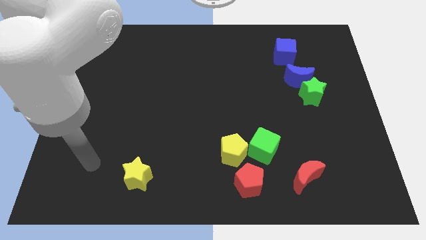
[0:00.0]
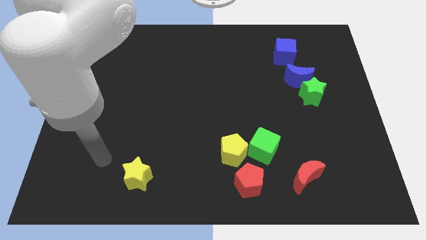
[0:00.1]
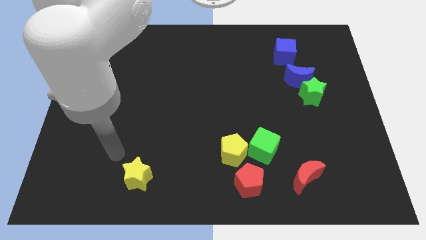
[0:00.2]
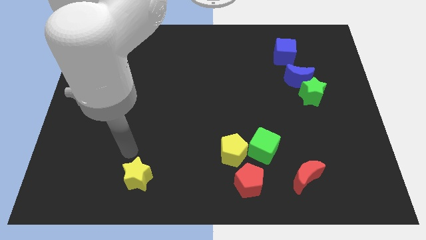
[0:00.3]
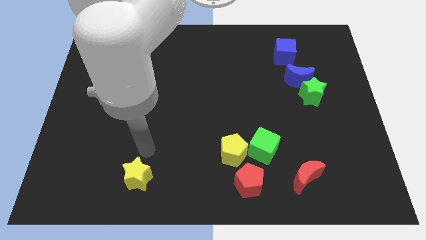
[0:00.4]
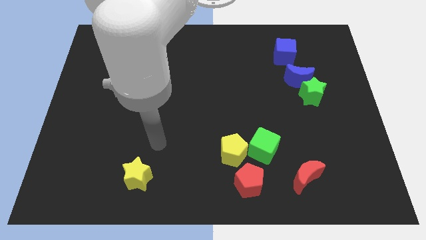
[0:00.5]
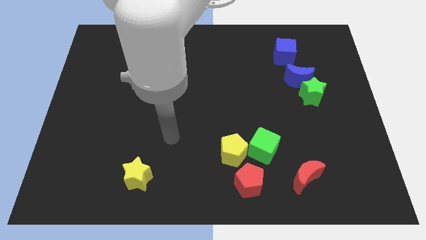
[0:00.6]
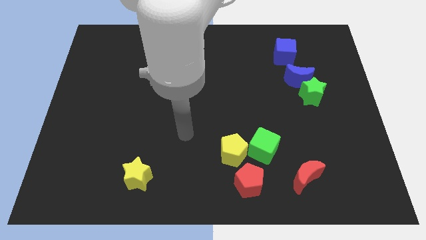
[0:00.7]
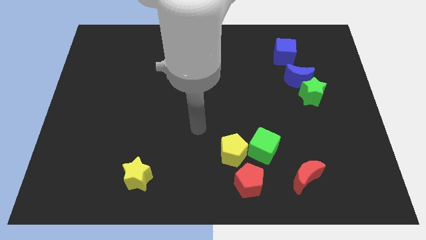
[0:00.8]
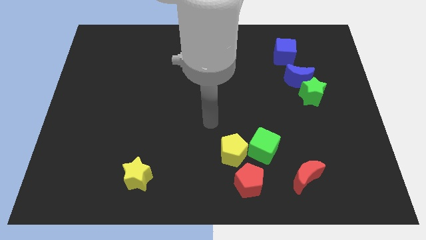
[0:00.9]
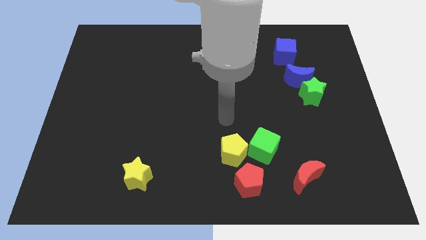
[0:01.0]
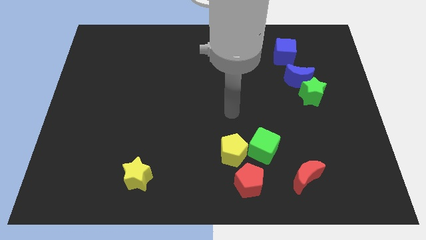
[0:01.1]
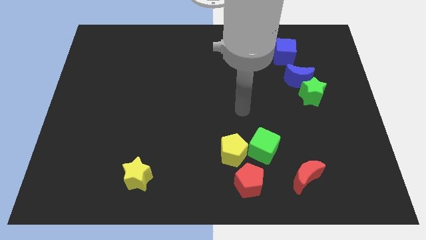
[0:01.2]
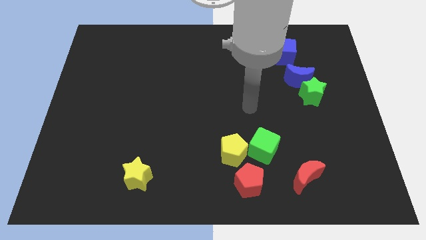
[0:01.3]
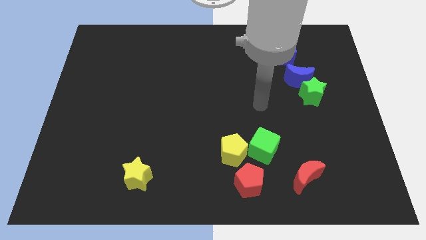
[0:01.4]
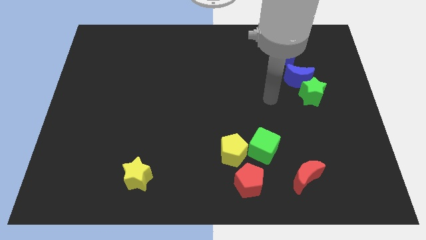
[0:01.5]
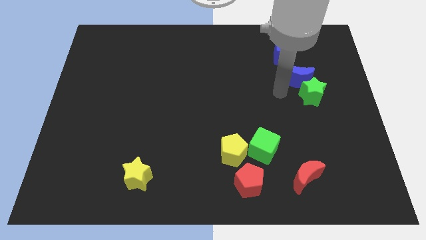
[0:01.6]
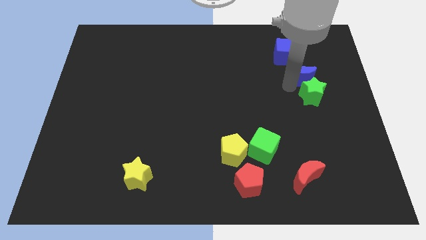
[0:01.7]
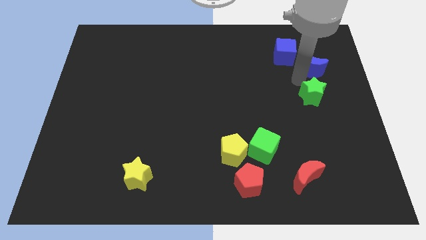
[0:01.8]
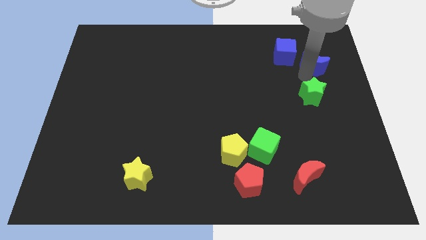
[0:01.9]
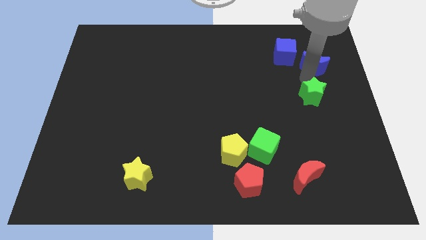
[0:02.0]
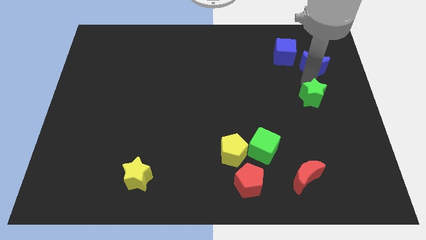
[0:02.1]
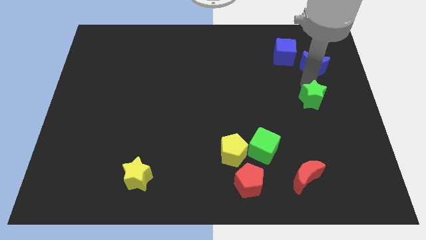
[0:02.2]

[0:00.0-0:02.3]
separate the green star from the blue moon

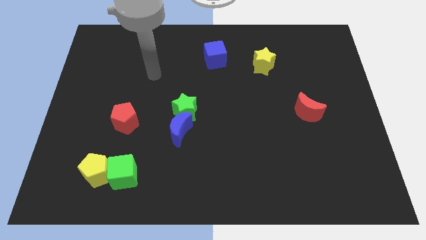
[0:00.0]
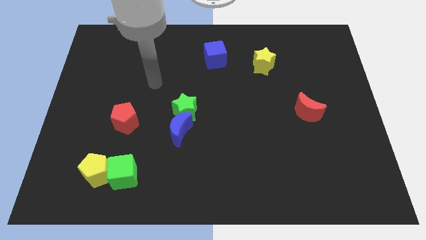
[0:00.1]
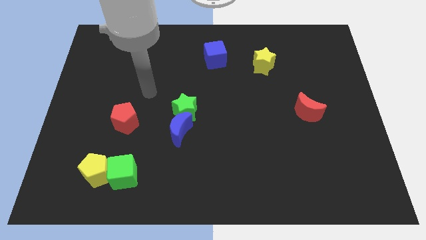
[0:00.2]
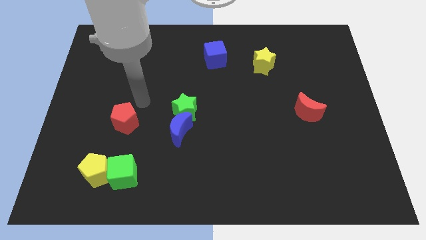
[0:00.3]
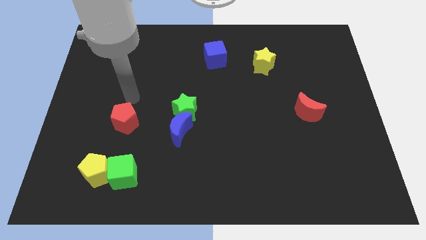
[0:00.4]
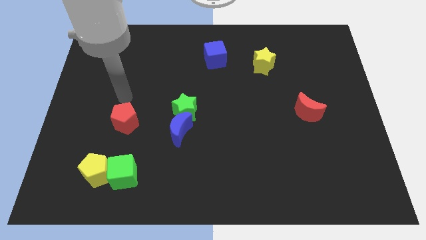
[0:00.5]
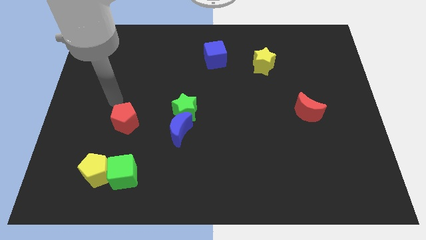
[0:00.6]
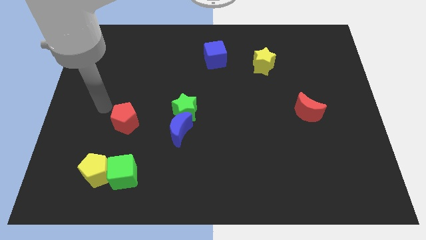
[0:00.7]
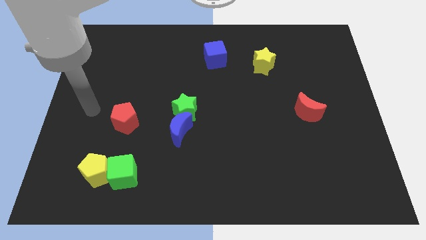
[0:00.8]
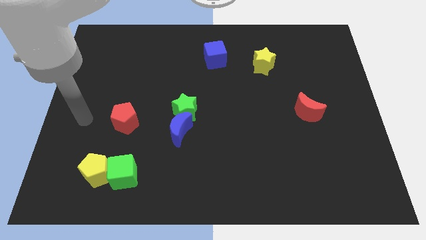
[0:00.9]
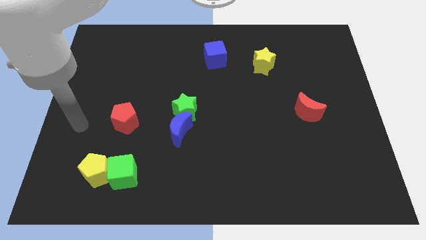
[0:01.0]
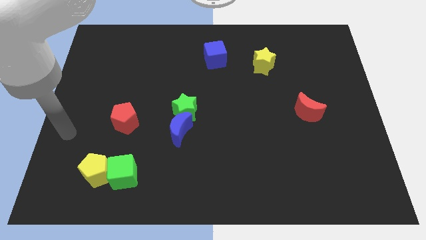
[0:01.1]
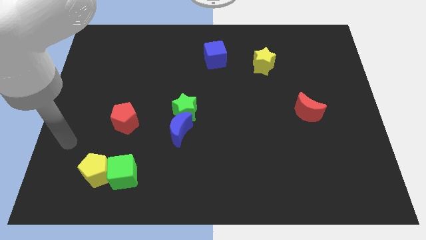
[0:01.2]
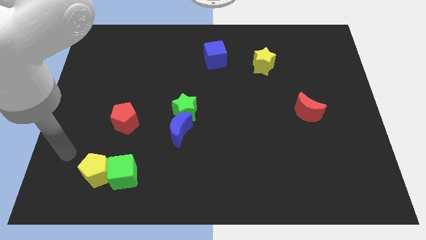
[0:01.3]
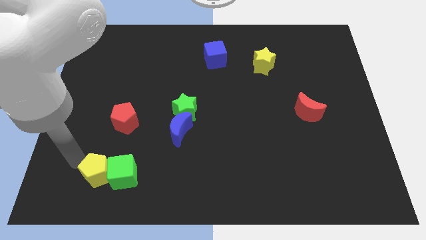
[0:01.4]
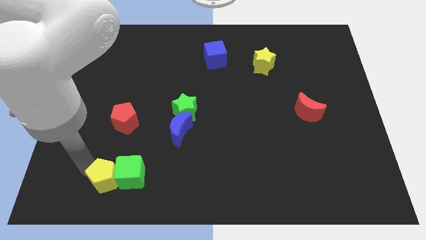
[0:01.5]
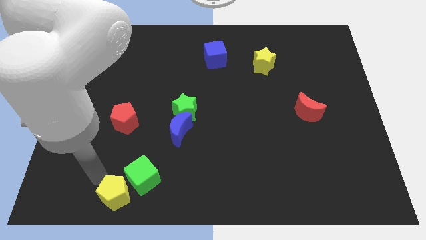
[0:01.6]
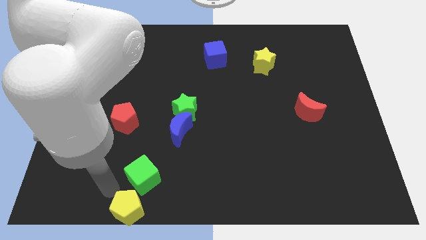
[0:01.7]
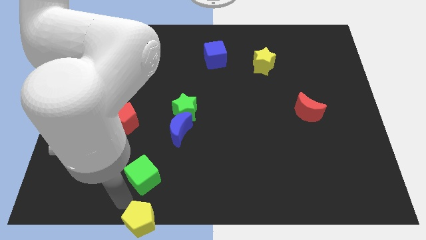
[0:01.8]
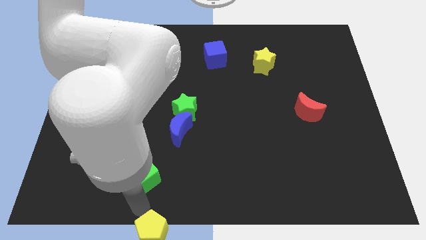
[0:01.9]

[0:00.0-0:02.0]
move the green cube away from the yellow pentagon

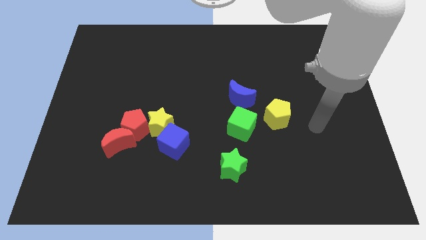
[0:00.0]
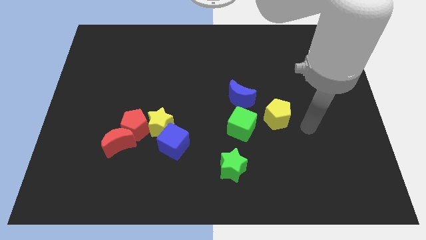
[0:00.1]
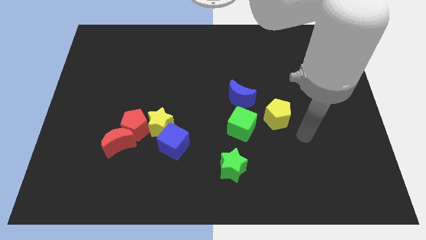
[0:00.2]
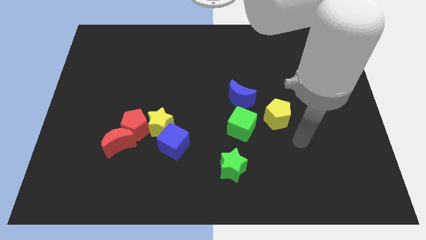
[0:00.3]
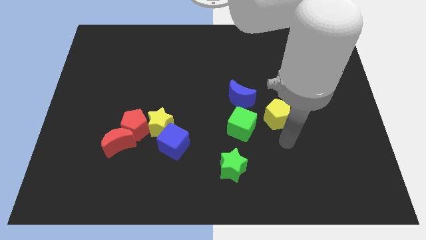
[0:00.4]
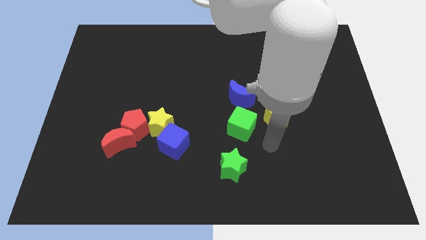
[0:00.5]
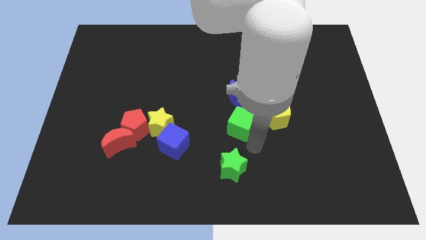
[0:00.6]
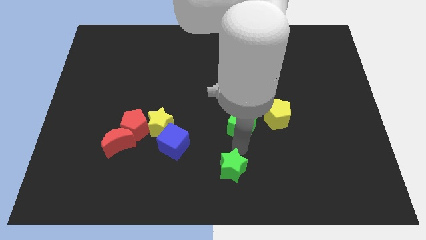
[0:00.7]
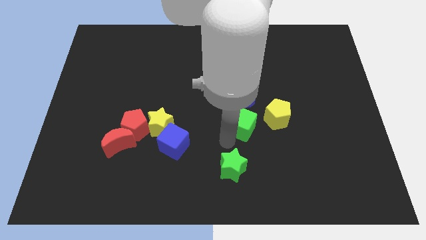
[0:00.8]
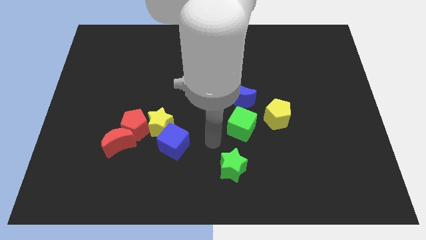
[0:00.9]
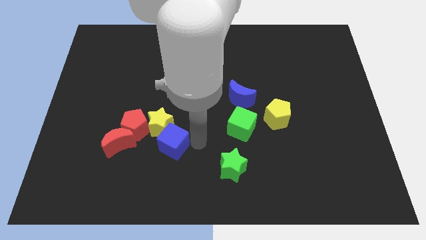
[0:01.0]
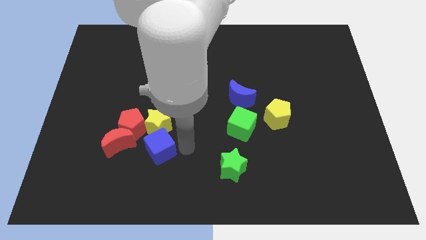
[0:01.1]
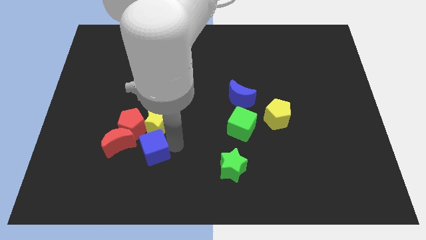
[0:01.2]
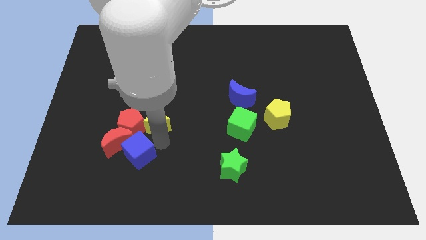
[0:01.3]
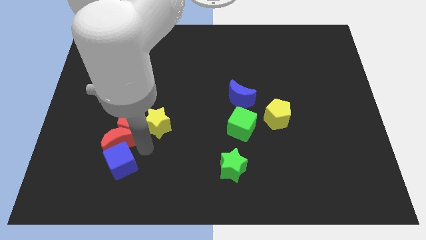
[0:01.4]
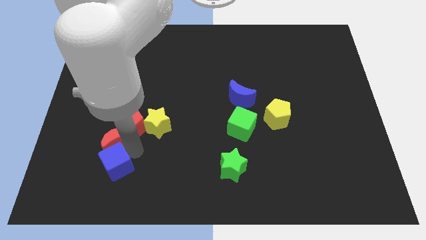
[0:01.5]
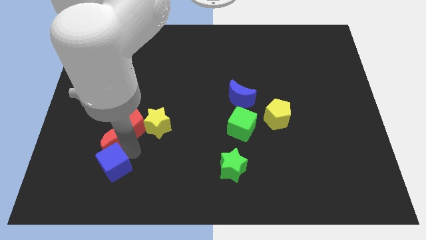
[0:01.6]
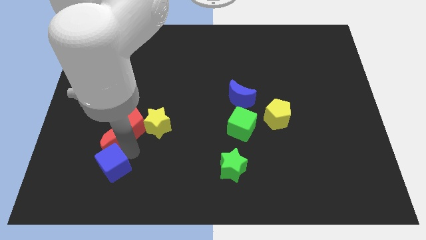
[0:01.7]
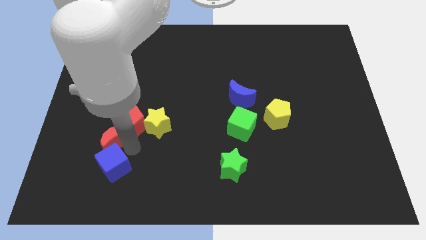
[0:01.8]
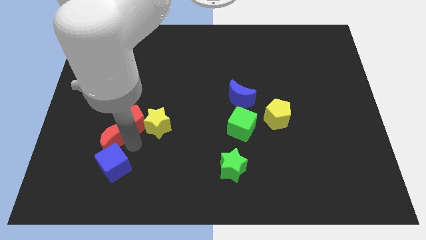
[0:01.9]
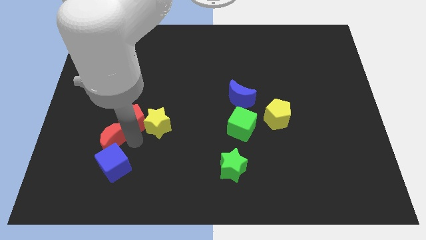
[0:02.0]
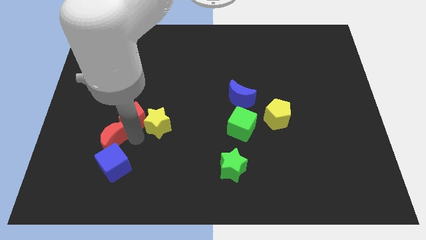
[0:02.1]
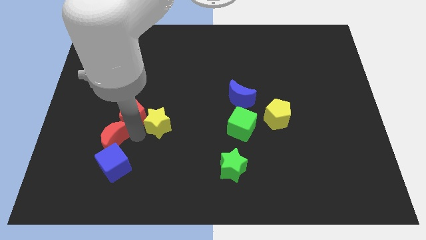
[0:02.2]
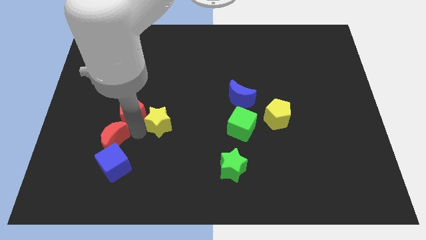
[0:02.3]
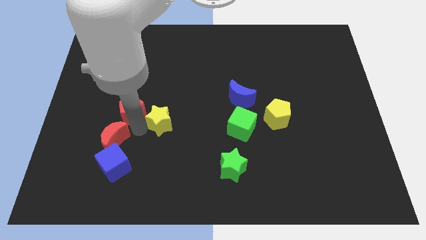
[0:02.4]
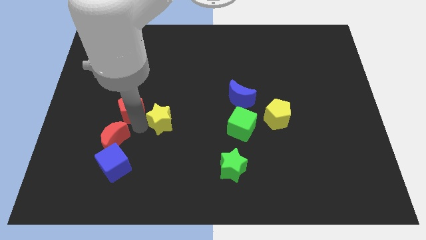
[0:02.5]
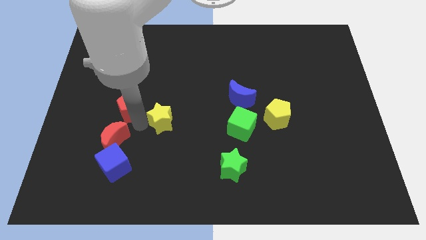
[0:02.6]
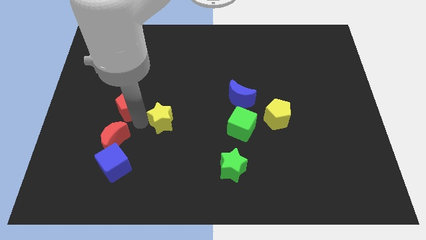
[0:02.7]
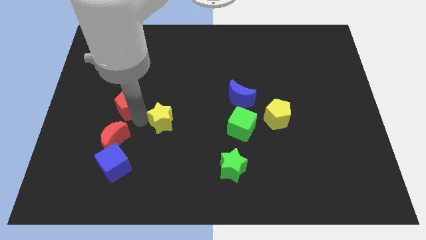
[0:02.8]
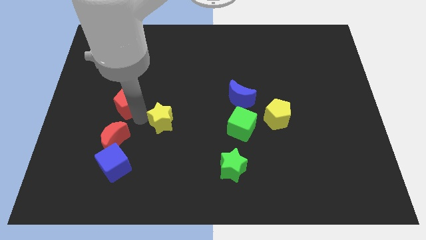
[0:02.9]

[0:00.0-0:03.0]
separate the red pentagon from the group of blocks

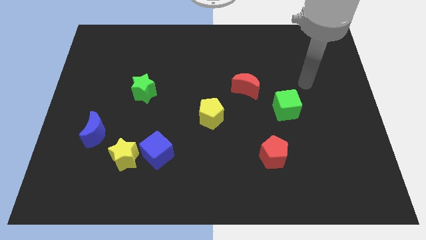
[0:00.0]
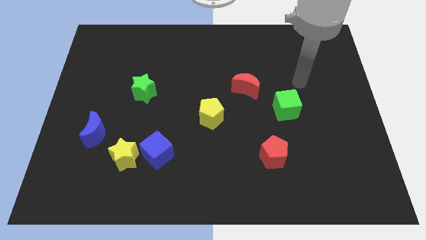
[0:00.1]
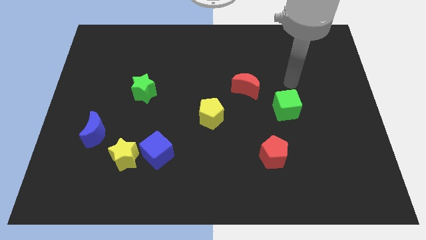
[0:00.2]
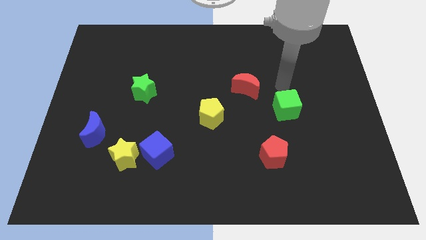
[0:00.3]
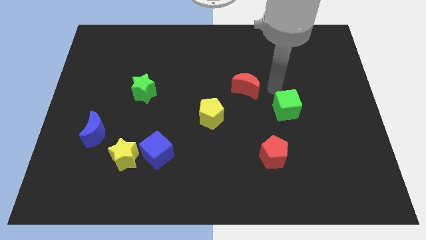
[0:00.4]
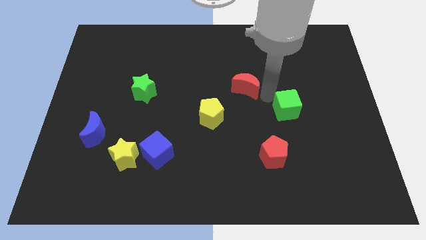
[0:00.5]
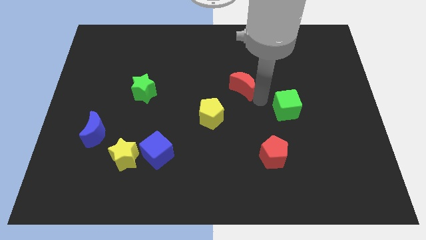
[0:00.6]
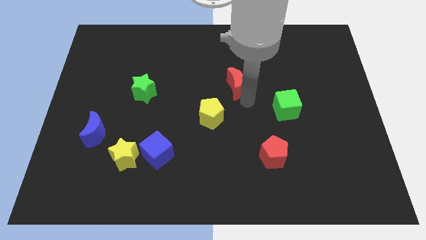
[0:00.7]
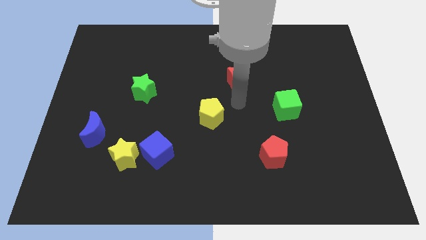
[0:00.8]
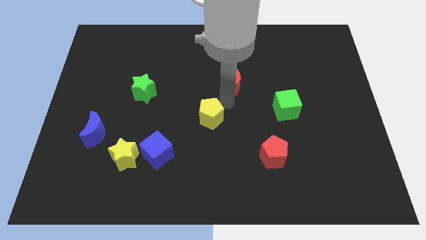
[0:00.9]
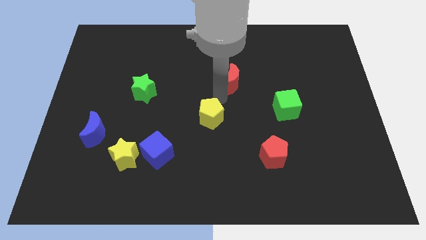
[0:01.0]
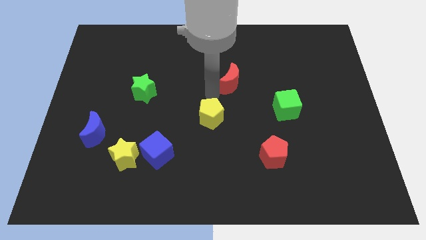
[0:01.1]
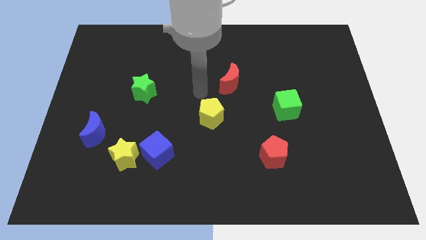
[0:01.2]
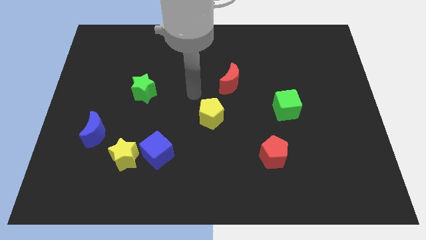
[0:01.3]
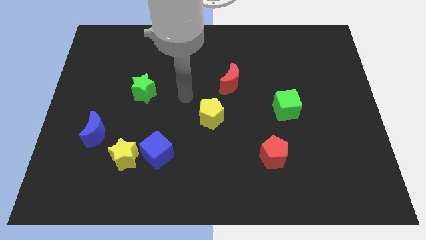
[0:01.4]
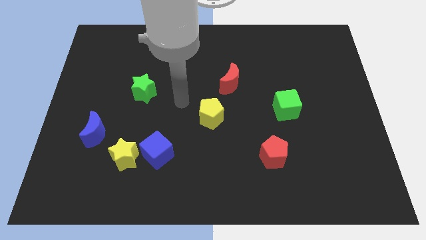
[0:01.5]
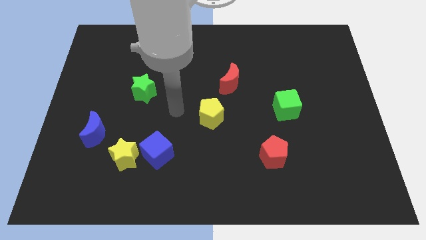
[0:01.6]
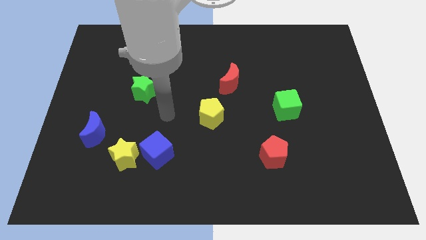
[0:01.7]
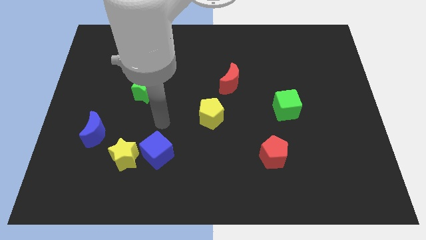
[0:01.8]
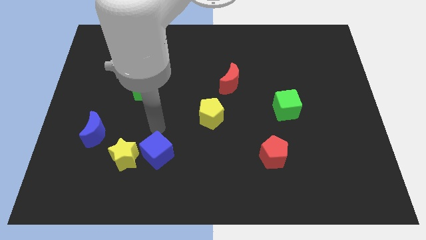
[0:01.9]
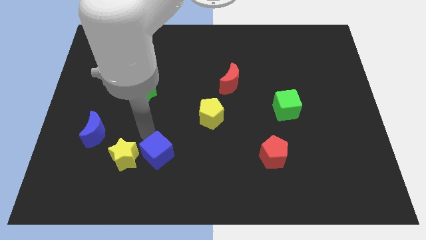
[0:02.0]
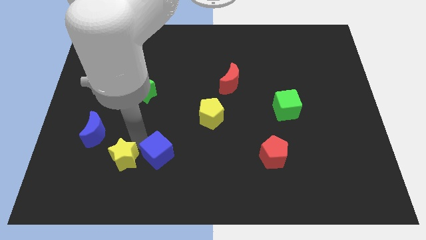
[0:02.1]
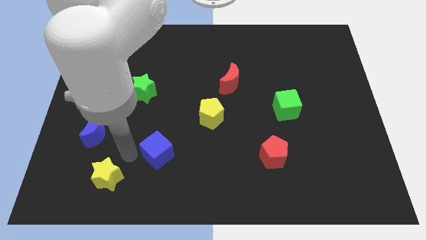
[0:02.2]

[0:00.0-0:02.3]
move the blue cube away from the yellow star
